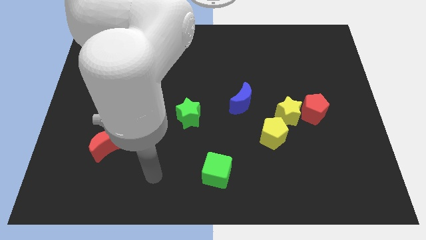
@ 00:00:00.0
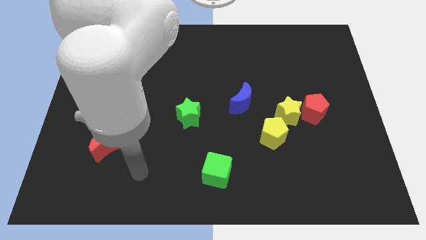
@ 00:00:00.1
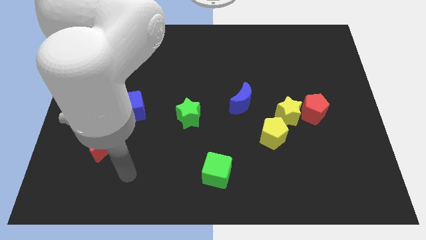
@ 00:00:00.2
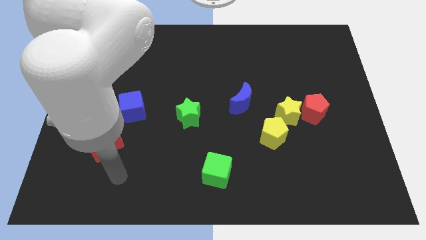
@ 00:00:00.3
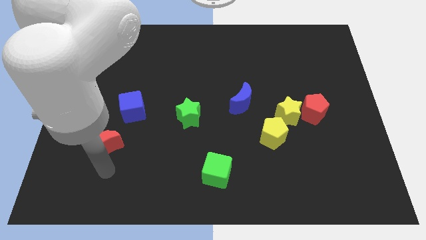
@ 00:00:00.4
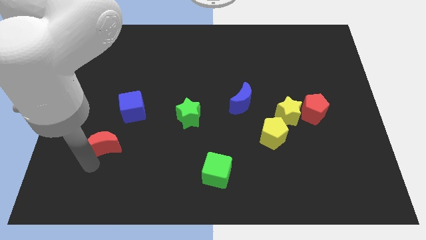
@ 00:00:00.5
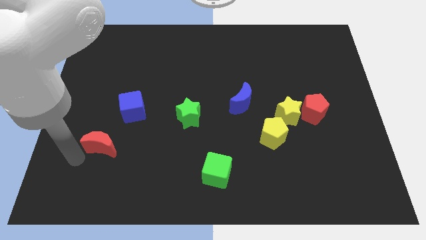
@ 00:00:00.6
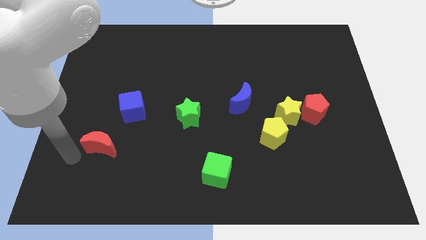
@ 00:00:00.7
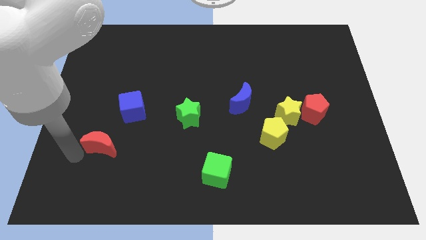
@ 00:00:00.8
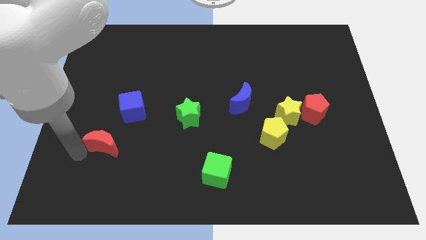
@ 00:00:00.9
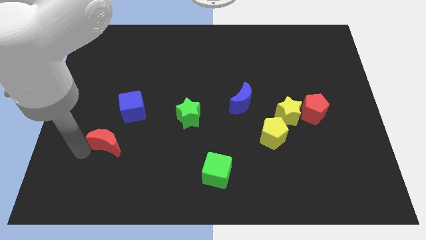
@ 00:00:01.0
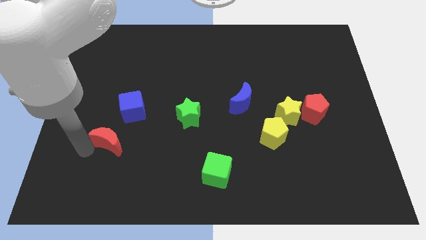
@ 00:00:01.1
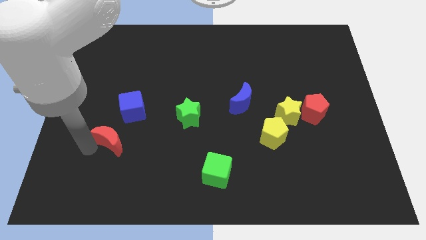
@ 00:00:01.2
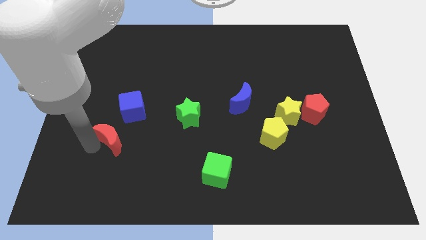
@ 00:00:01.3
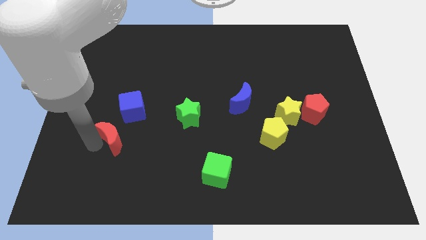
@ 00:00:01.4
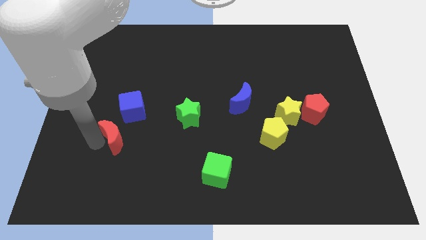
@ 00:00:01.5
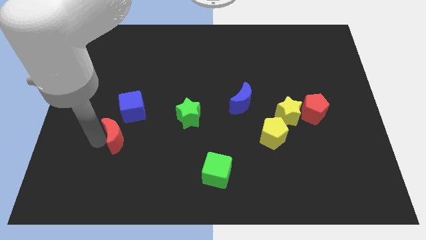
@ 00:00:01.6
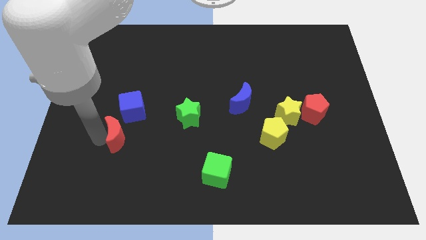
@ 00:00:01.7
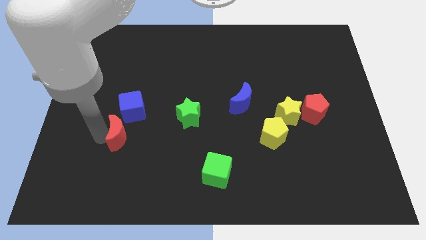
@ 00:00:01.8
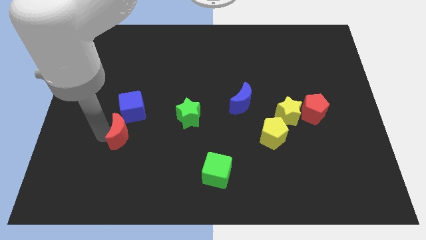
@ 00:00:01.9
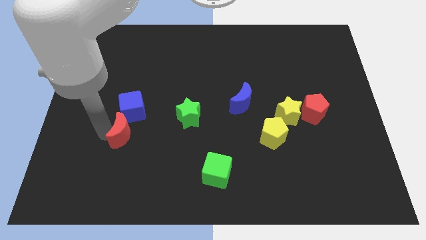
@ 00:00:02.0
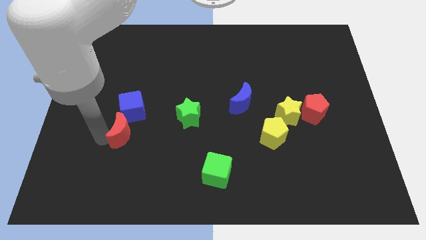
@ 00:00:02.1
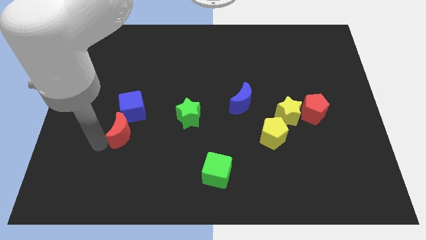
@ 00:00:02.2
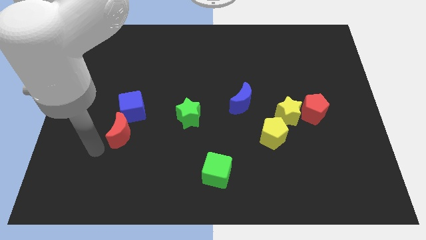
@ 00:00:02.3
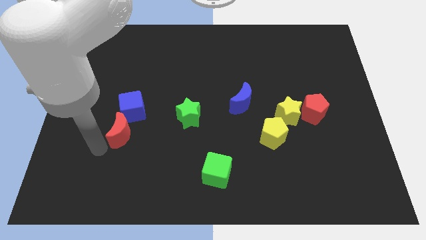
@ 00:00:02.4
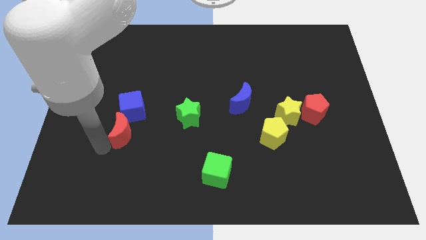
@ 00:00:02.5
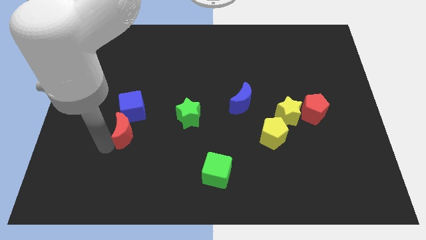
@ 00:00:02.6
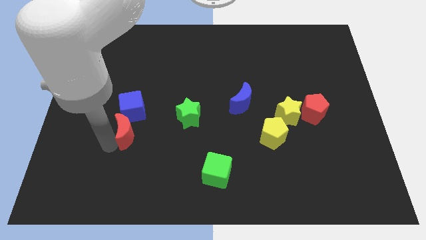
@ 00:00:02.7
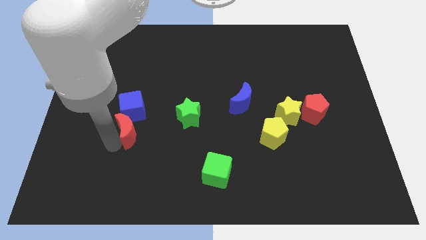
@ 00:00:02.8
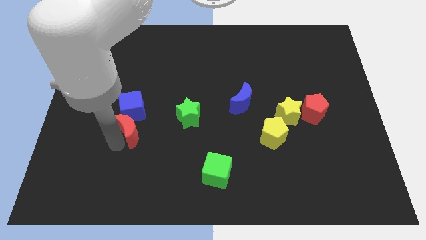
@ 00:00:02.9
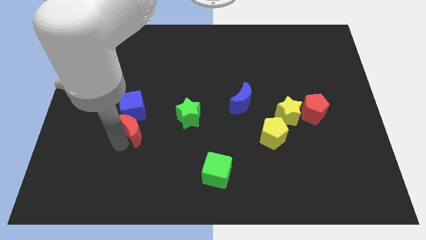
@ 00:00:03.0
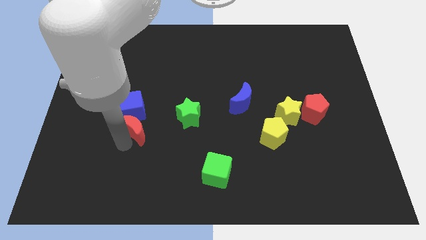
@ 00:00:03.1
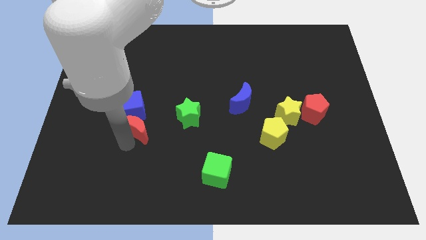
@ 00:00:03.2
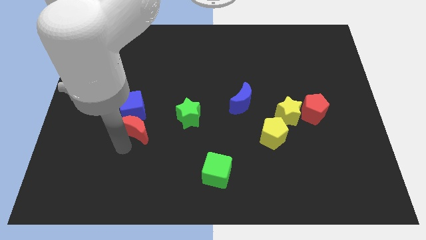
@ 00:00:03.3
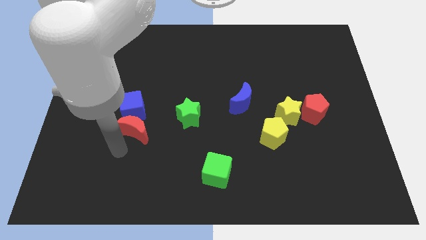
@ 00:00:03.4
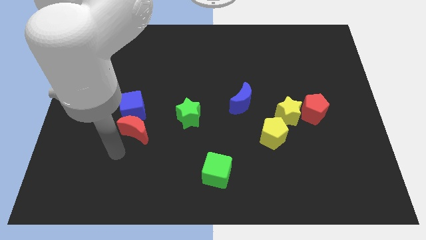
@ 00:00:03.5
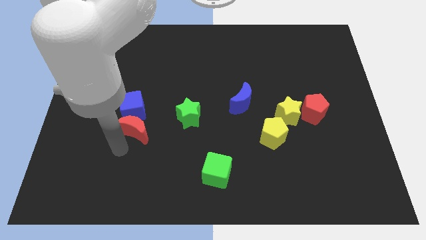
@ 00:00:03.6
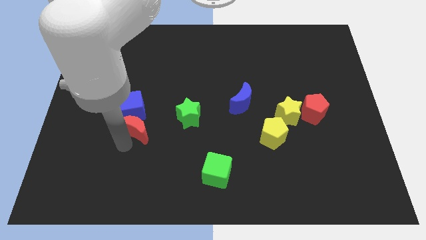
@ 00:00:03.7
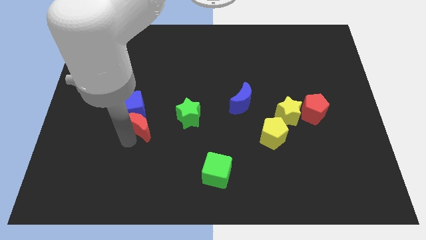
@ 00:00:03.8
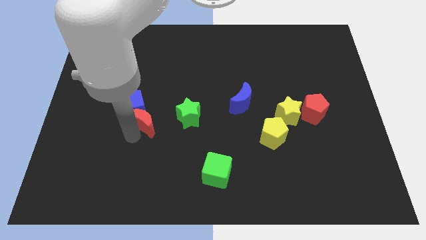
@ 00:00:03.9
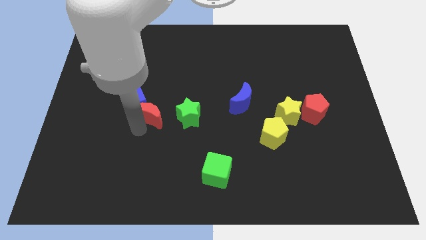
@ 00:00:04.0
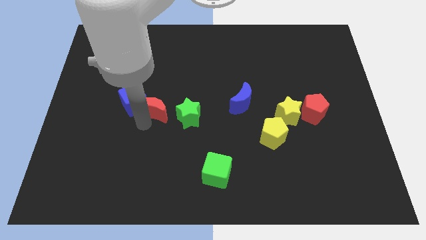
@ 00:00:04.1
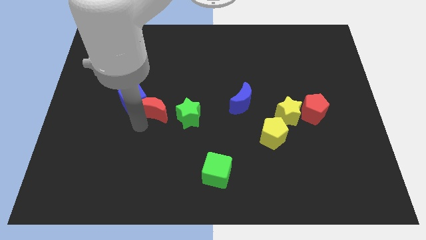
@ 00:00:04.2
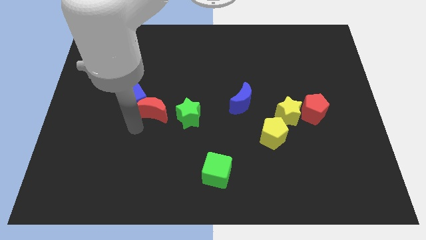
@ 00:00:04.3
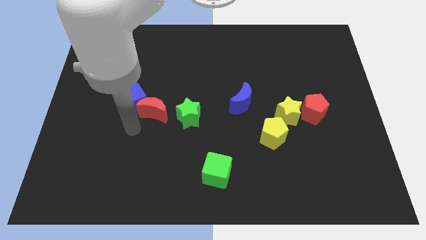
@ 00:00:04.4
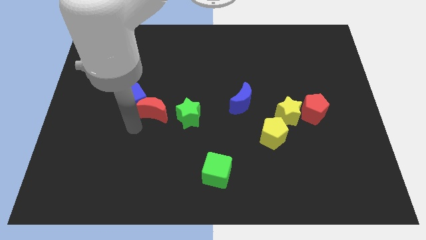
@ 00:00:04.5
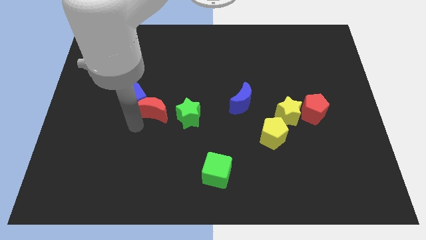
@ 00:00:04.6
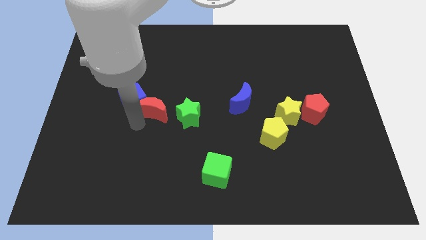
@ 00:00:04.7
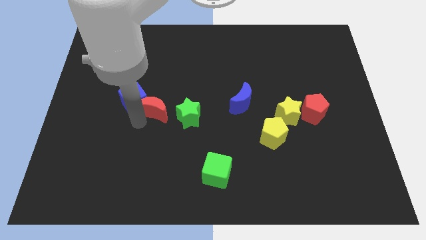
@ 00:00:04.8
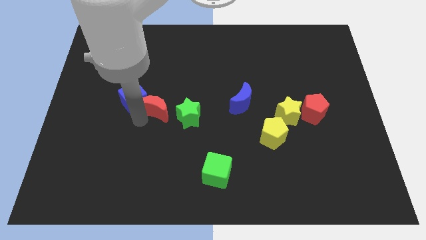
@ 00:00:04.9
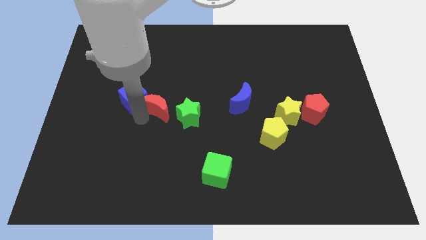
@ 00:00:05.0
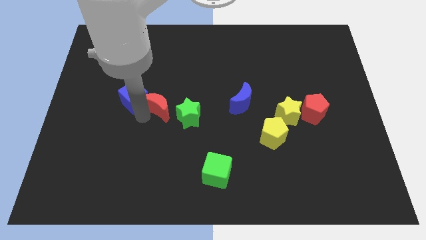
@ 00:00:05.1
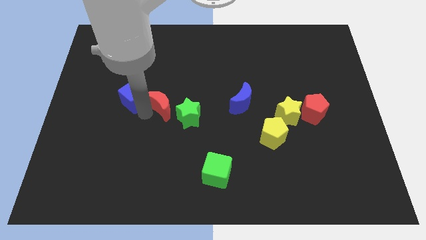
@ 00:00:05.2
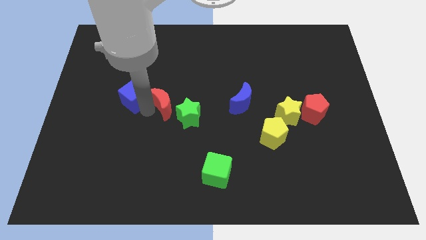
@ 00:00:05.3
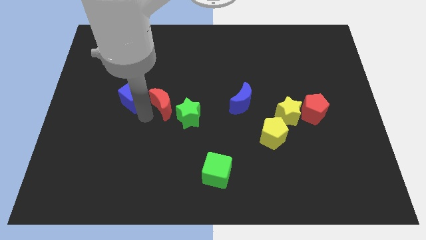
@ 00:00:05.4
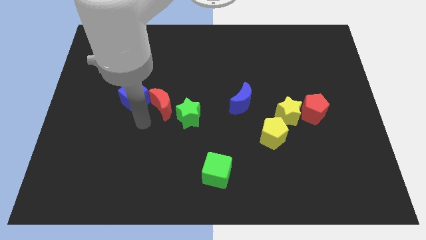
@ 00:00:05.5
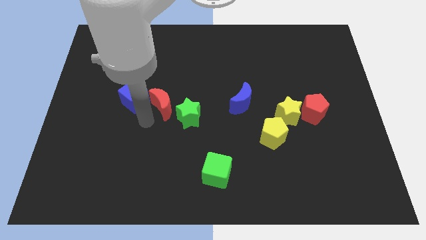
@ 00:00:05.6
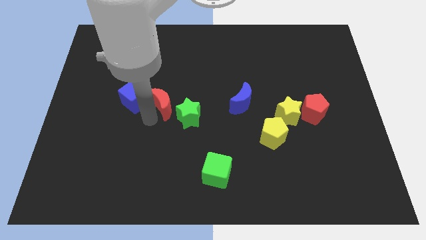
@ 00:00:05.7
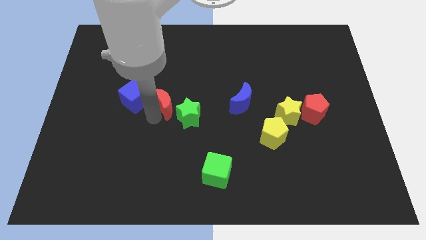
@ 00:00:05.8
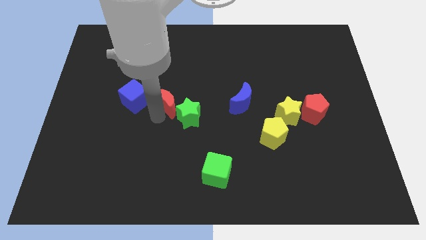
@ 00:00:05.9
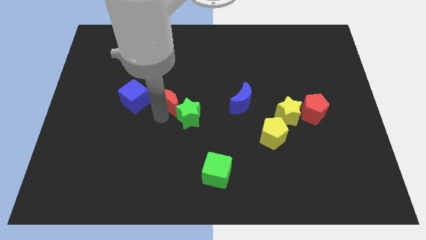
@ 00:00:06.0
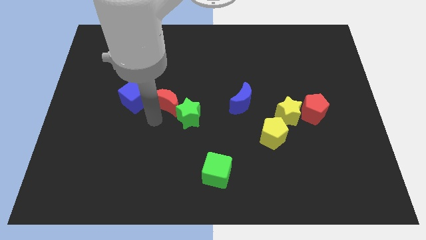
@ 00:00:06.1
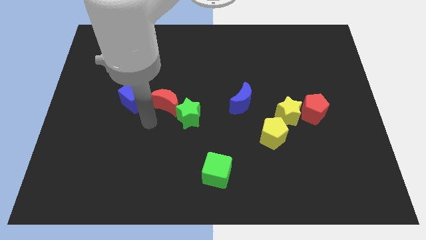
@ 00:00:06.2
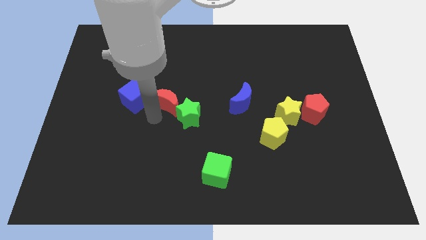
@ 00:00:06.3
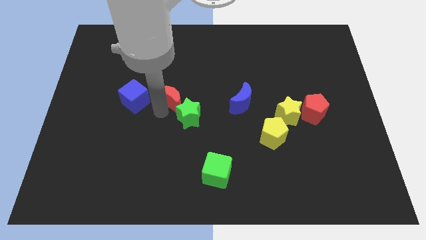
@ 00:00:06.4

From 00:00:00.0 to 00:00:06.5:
put the red moon above the green star
